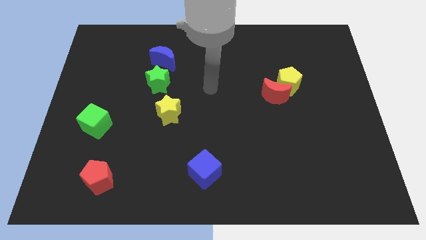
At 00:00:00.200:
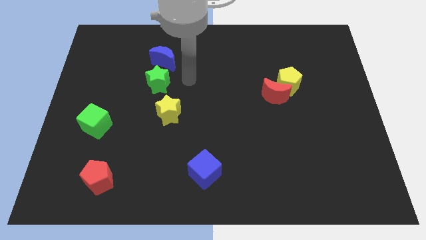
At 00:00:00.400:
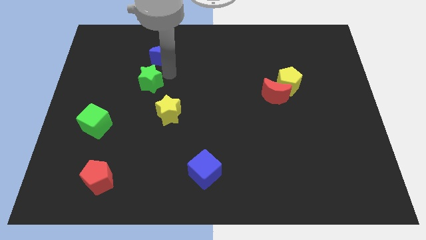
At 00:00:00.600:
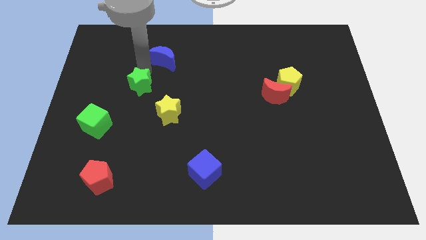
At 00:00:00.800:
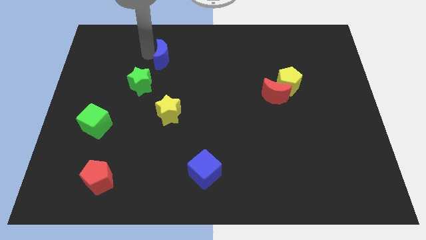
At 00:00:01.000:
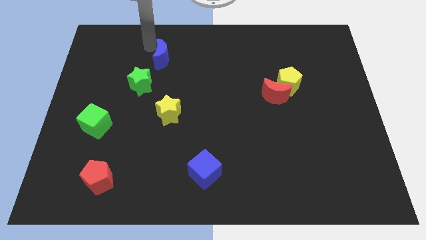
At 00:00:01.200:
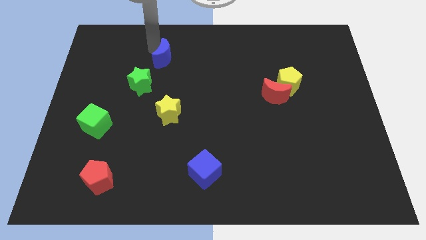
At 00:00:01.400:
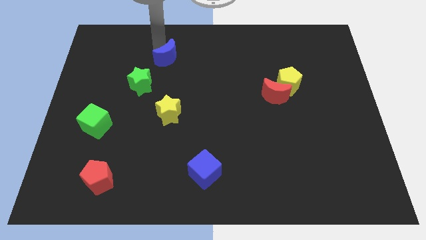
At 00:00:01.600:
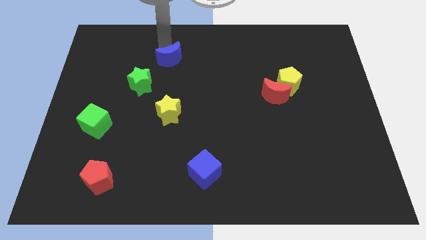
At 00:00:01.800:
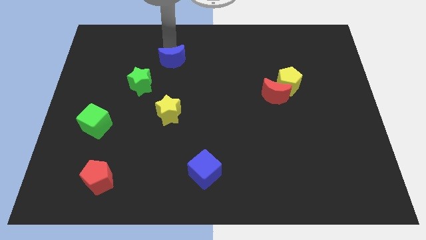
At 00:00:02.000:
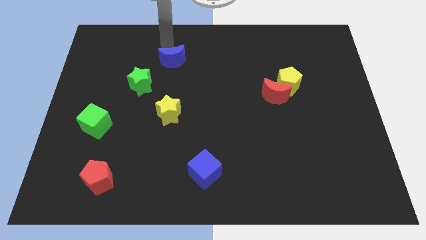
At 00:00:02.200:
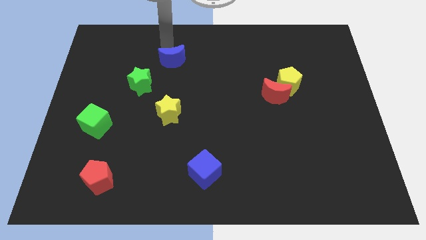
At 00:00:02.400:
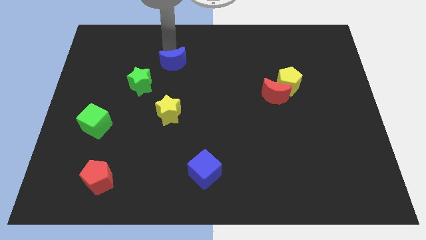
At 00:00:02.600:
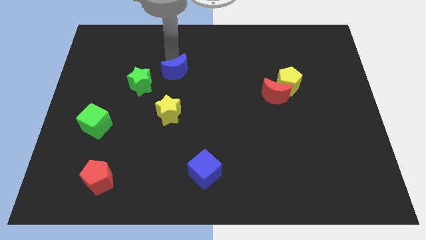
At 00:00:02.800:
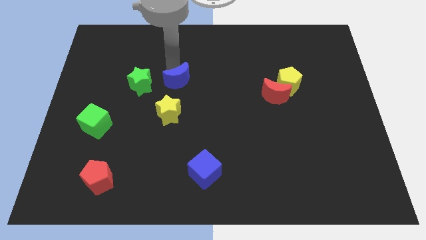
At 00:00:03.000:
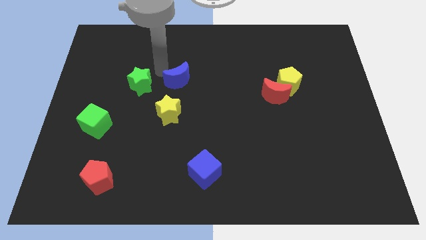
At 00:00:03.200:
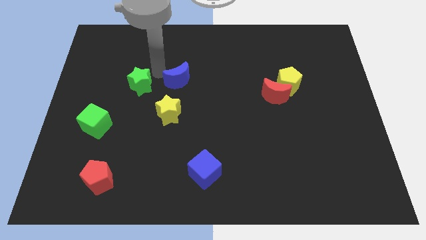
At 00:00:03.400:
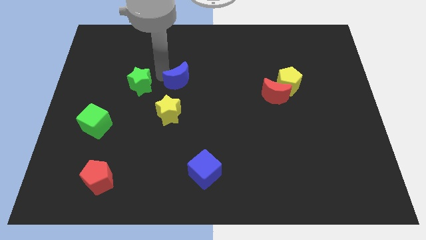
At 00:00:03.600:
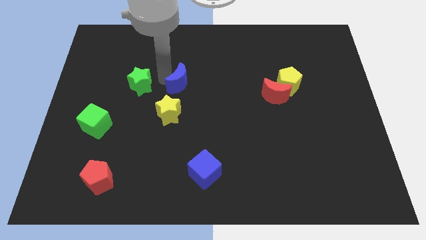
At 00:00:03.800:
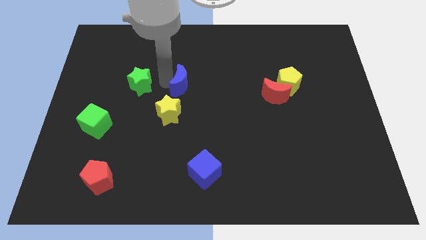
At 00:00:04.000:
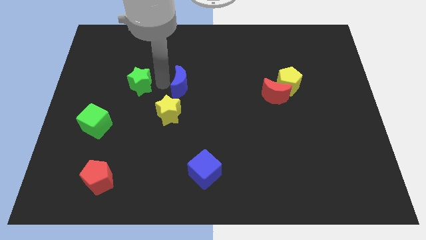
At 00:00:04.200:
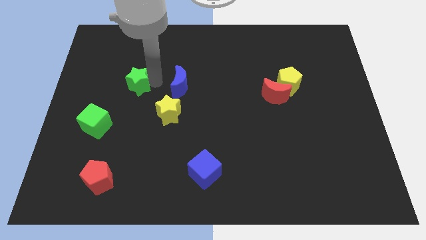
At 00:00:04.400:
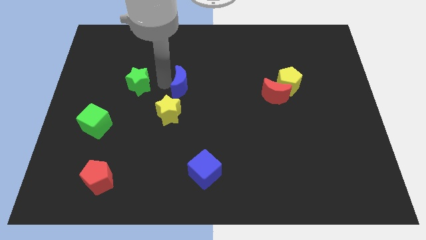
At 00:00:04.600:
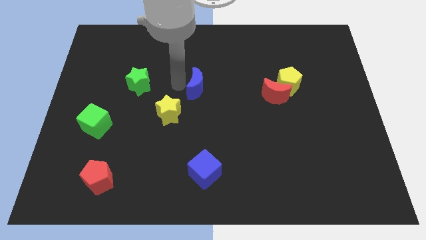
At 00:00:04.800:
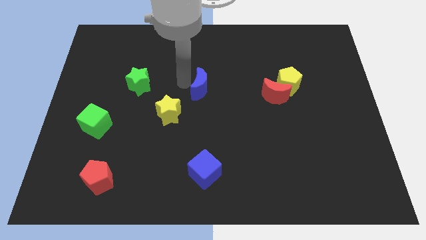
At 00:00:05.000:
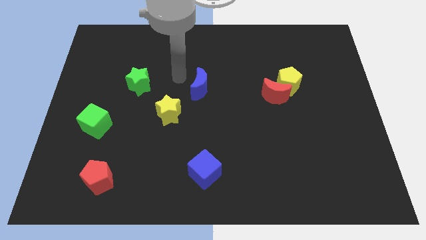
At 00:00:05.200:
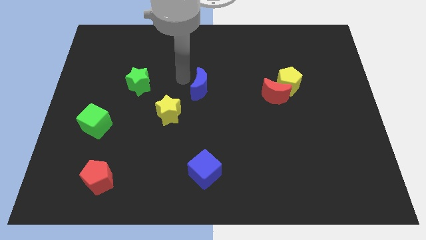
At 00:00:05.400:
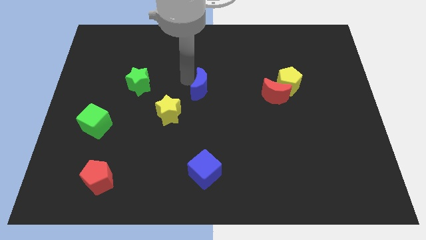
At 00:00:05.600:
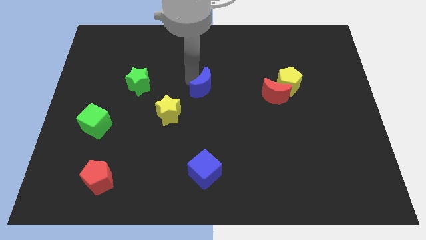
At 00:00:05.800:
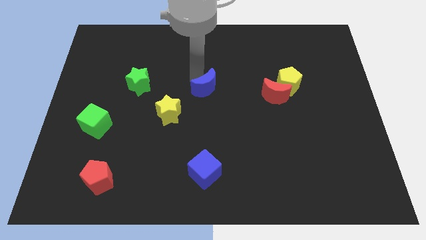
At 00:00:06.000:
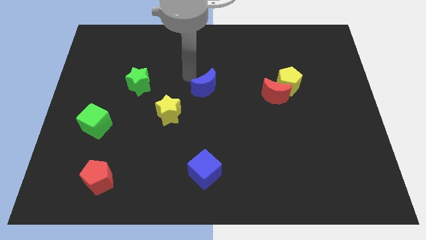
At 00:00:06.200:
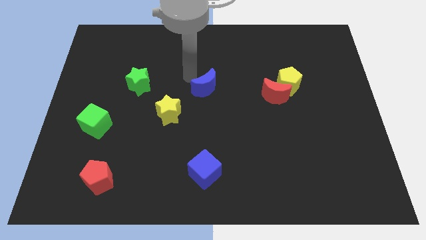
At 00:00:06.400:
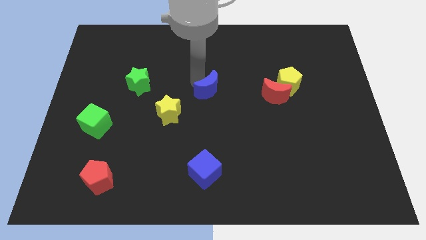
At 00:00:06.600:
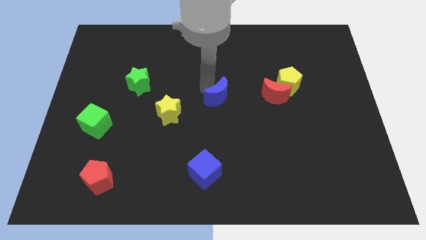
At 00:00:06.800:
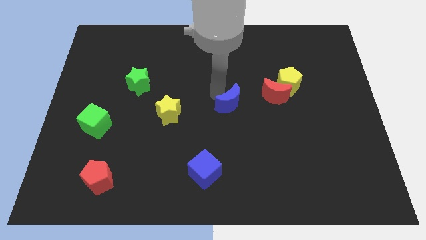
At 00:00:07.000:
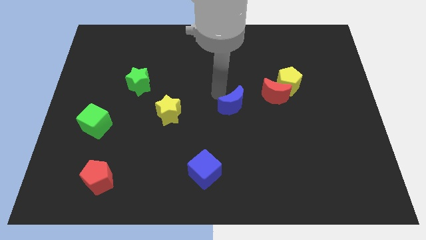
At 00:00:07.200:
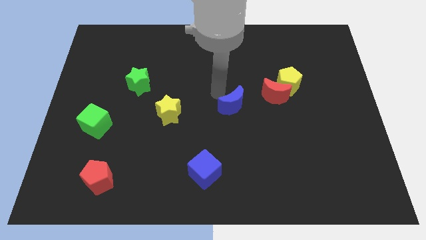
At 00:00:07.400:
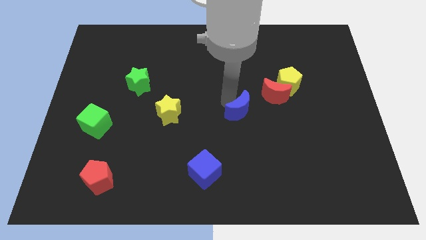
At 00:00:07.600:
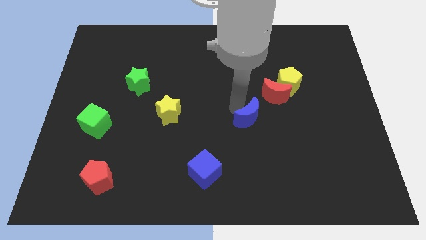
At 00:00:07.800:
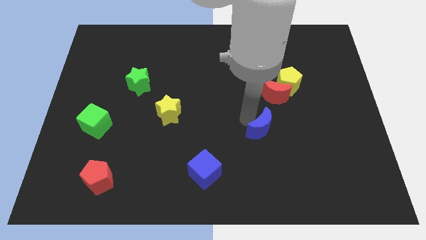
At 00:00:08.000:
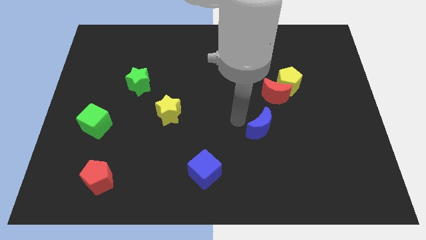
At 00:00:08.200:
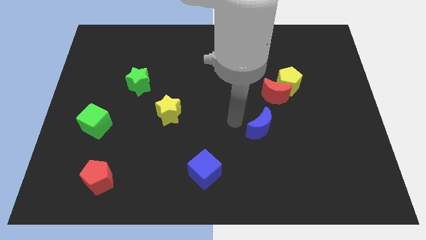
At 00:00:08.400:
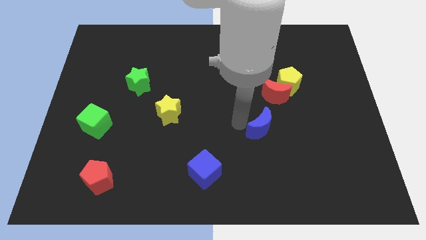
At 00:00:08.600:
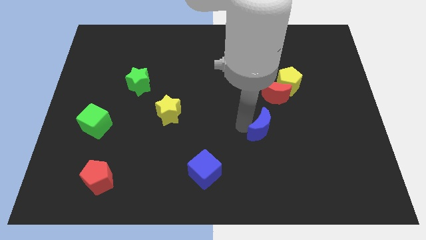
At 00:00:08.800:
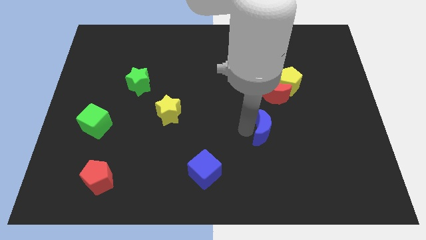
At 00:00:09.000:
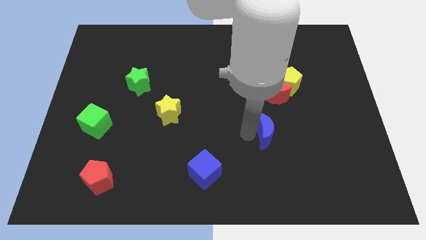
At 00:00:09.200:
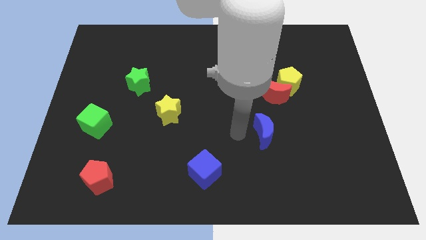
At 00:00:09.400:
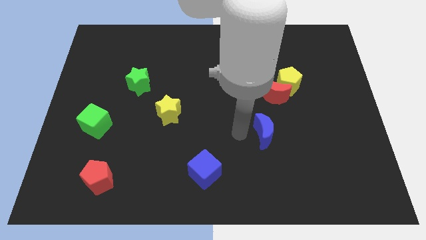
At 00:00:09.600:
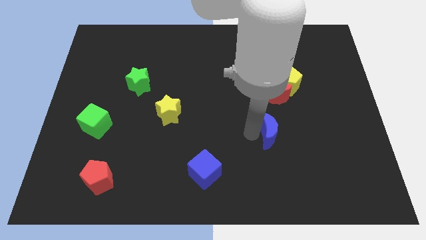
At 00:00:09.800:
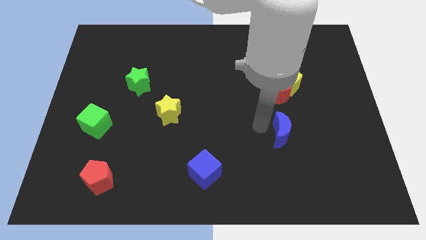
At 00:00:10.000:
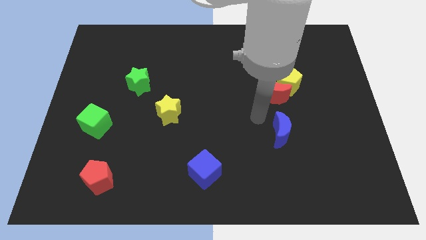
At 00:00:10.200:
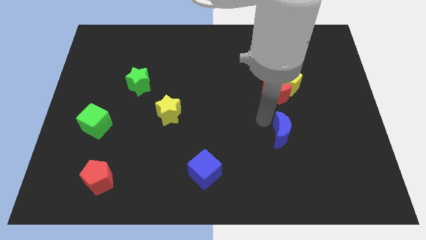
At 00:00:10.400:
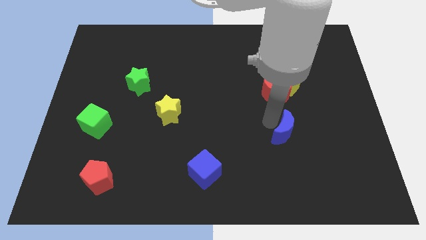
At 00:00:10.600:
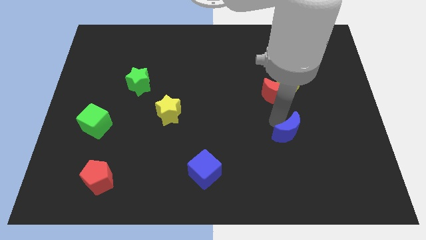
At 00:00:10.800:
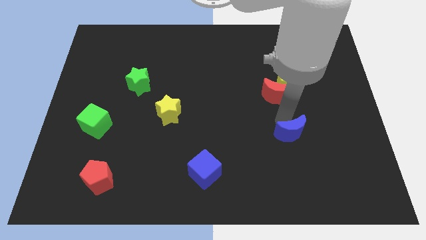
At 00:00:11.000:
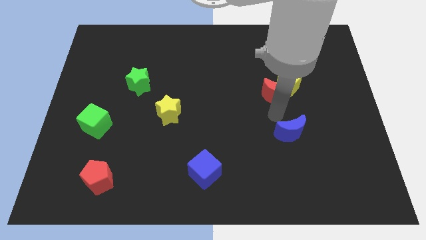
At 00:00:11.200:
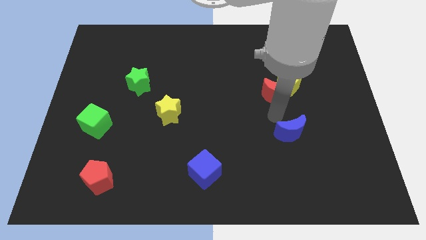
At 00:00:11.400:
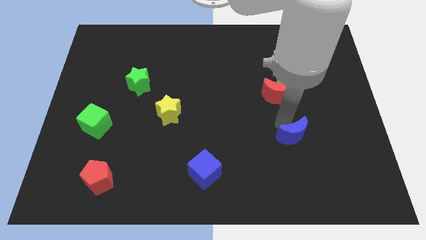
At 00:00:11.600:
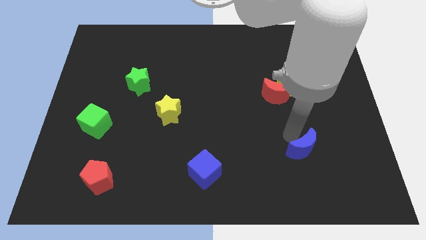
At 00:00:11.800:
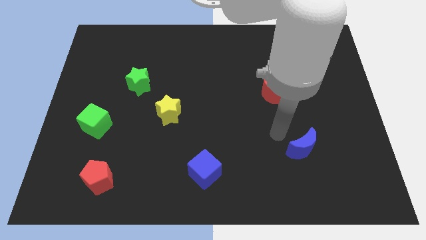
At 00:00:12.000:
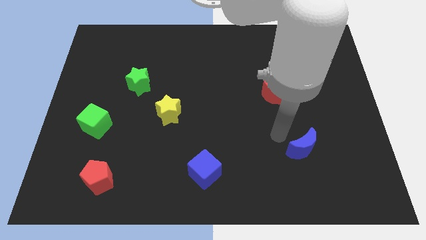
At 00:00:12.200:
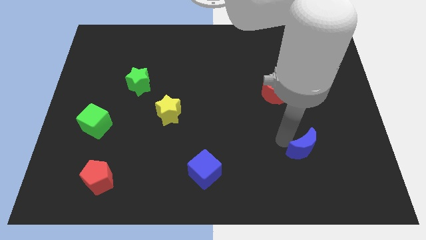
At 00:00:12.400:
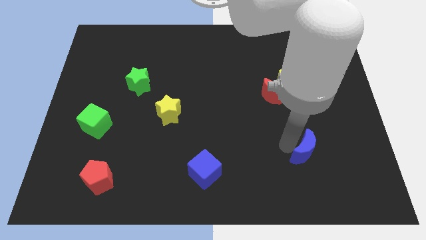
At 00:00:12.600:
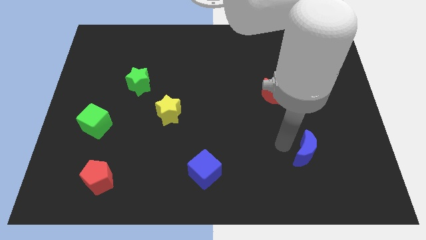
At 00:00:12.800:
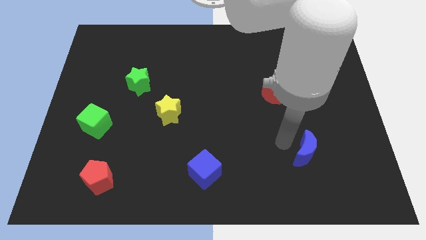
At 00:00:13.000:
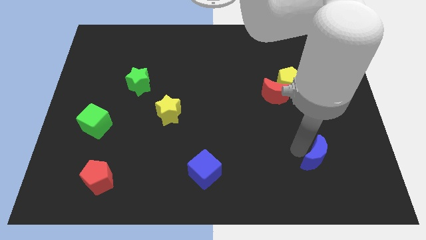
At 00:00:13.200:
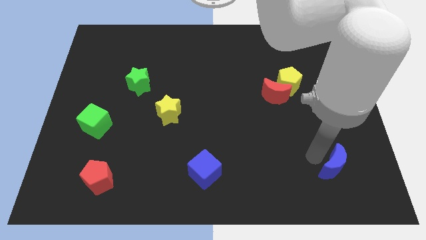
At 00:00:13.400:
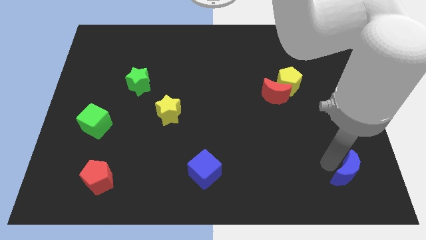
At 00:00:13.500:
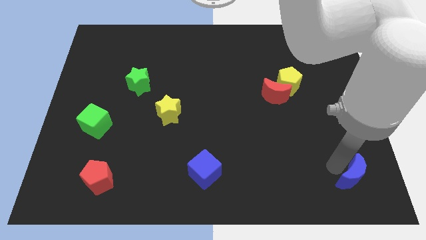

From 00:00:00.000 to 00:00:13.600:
slide the blue moon to the bottom right corner
